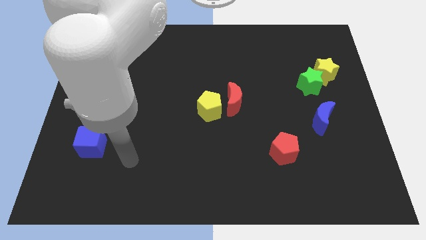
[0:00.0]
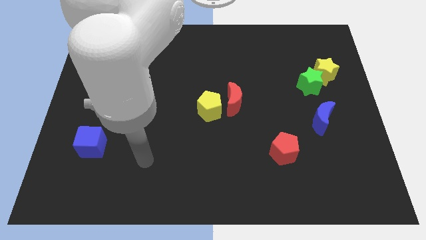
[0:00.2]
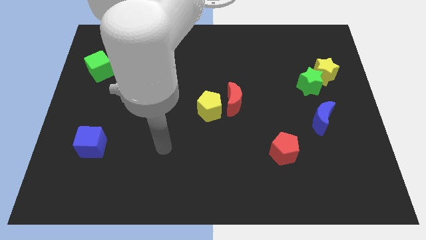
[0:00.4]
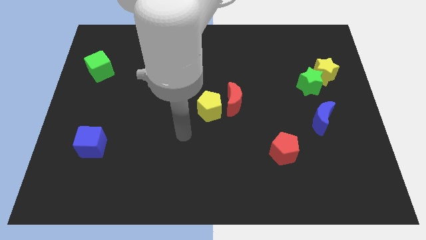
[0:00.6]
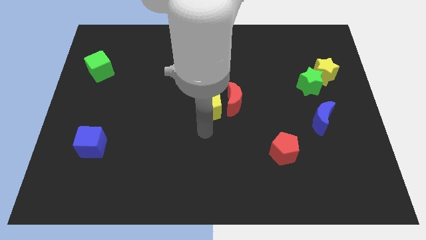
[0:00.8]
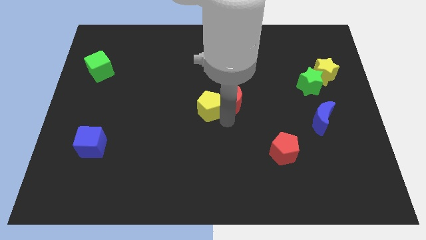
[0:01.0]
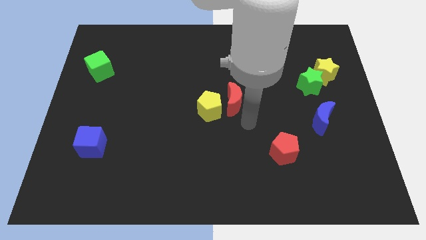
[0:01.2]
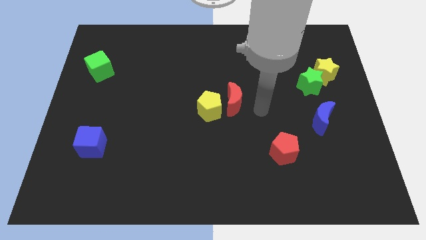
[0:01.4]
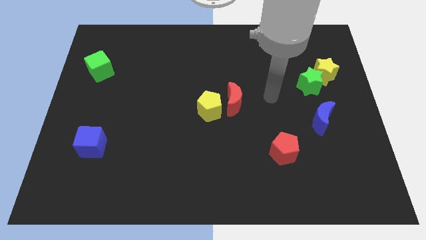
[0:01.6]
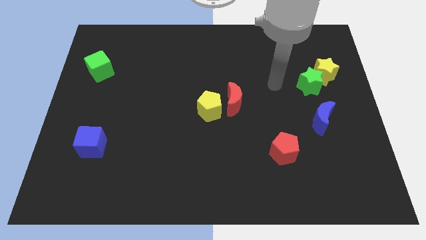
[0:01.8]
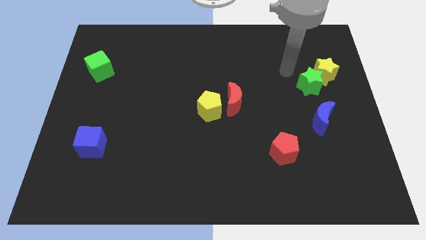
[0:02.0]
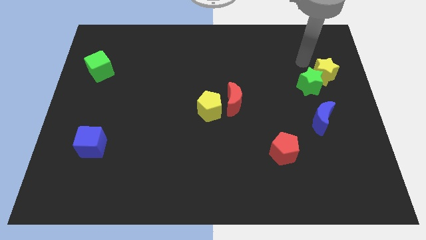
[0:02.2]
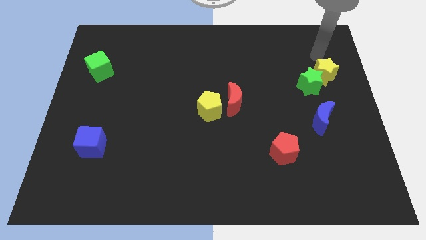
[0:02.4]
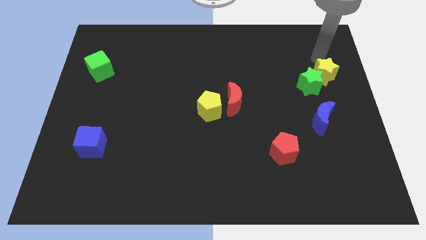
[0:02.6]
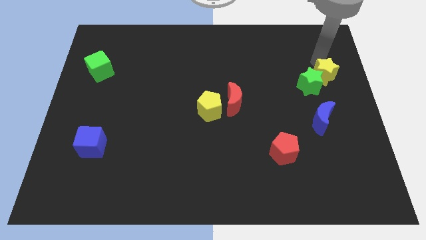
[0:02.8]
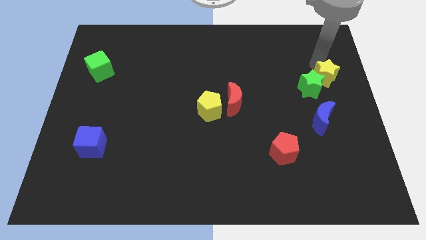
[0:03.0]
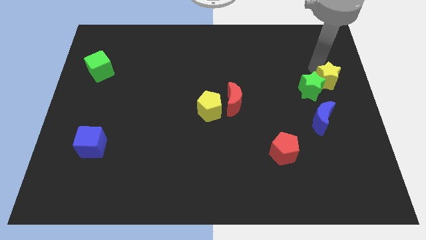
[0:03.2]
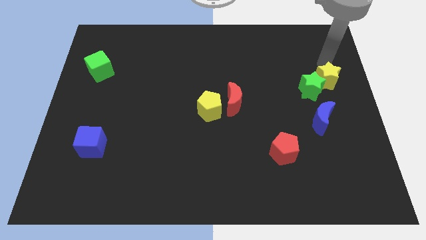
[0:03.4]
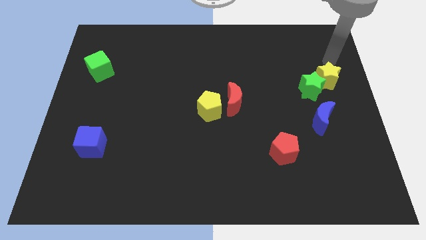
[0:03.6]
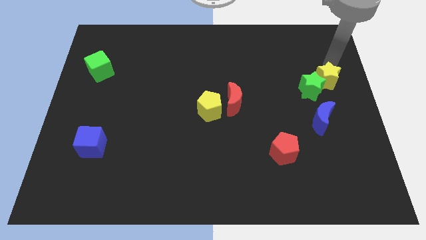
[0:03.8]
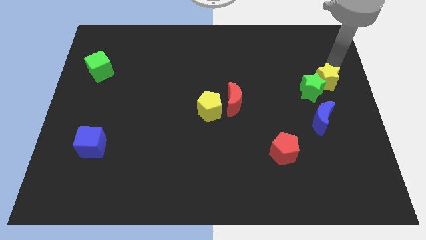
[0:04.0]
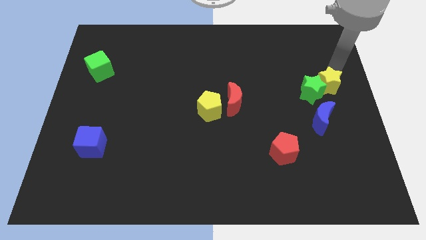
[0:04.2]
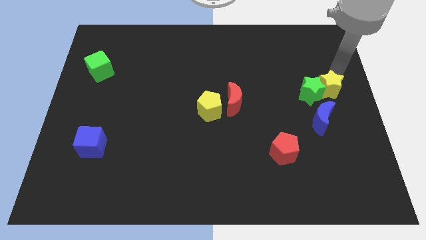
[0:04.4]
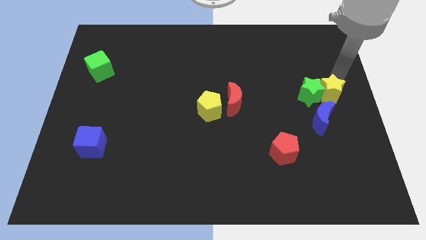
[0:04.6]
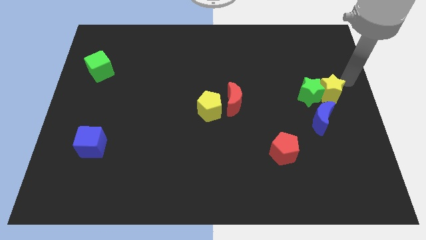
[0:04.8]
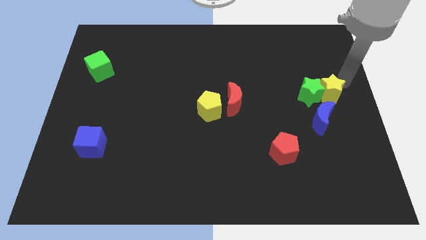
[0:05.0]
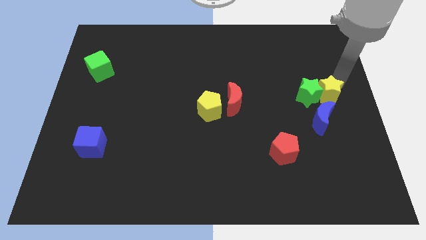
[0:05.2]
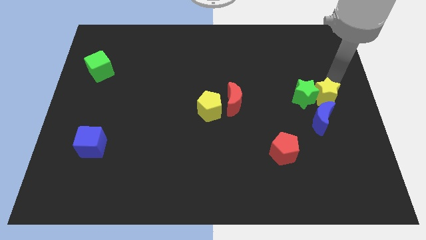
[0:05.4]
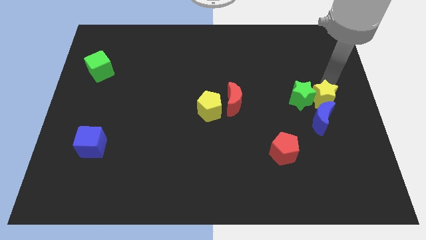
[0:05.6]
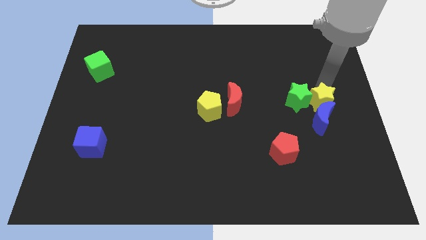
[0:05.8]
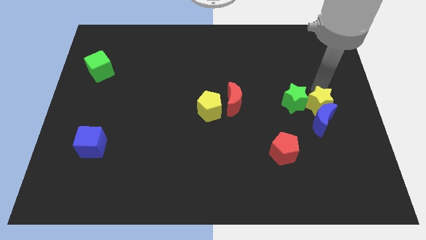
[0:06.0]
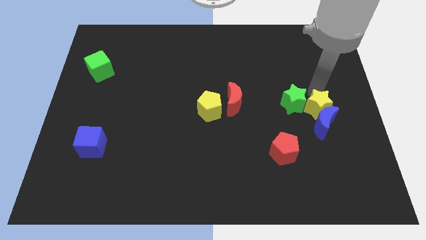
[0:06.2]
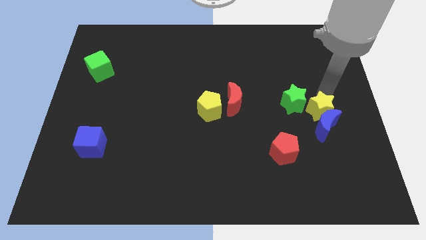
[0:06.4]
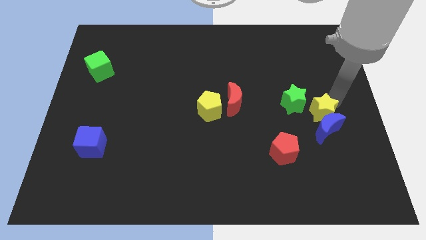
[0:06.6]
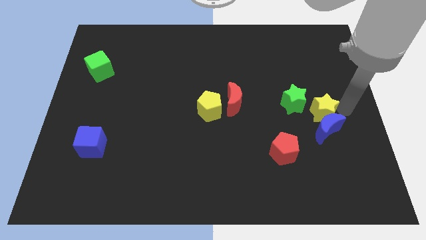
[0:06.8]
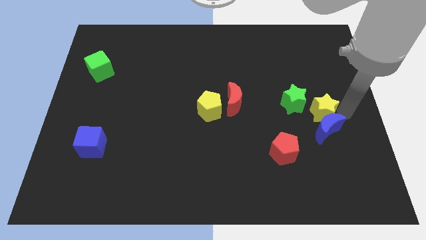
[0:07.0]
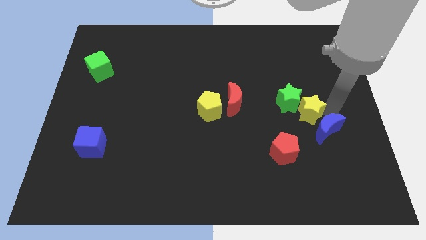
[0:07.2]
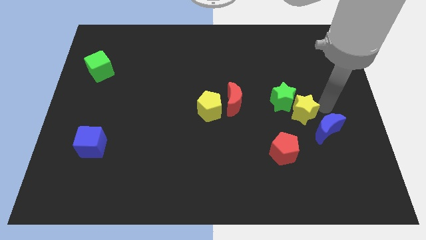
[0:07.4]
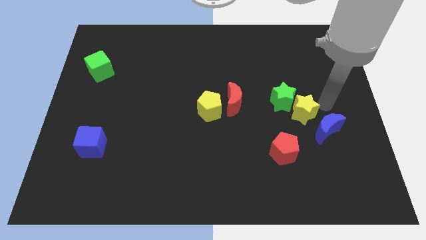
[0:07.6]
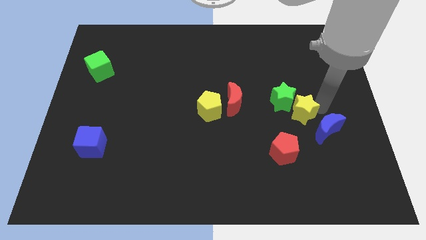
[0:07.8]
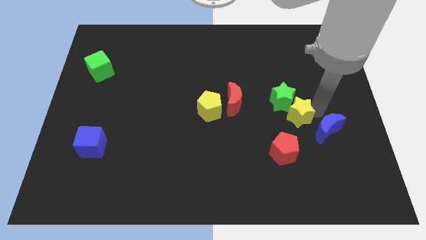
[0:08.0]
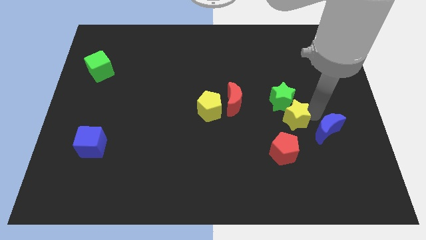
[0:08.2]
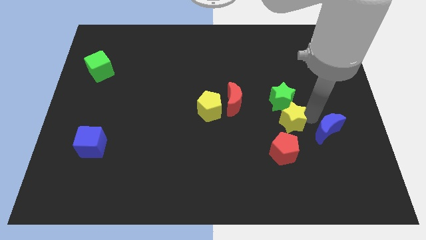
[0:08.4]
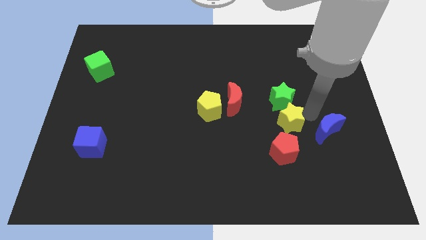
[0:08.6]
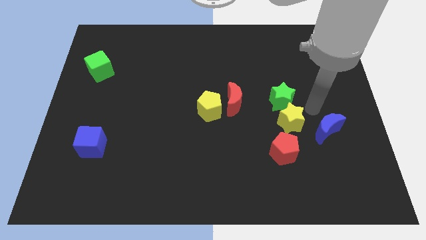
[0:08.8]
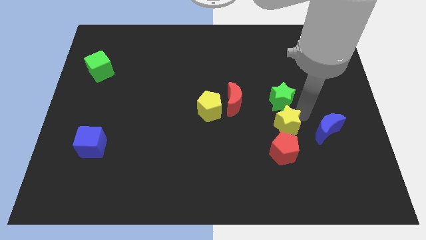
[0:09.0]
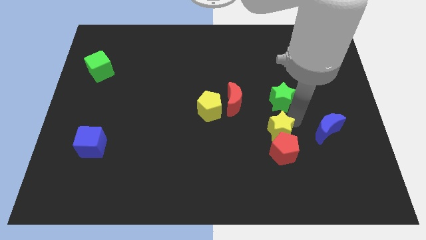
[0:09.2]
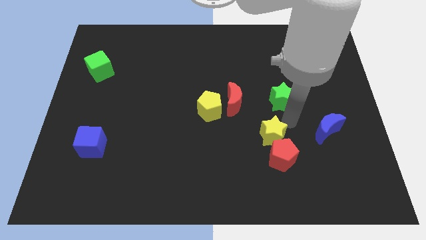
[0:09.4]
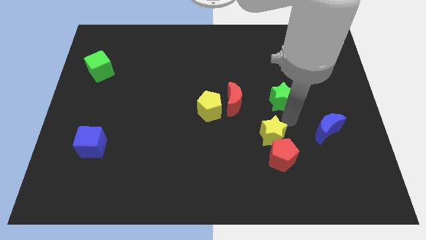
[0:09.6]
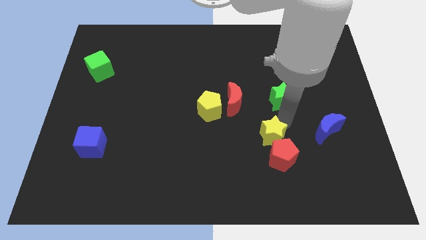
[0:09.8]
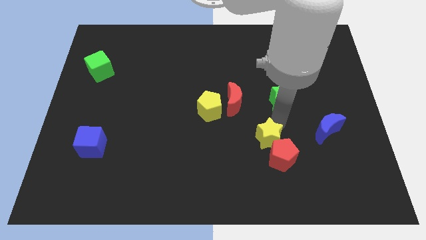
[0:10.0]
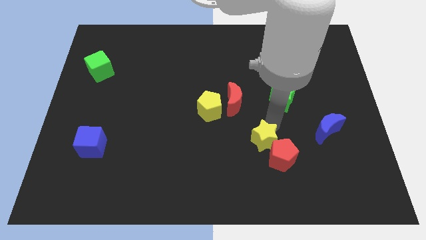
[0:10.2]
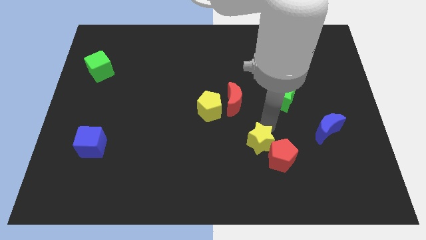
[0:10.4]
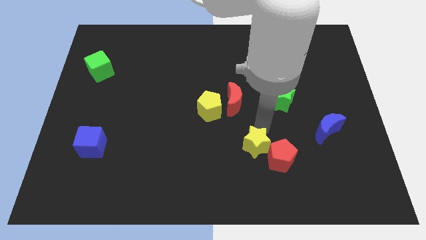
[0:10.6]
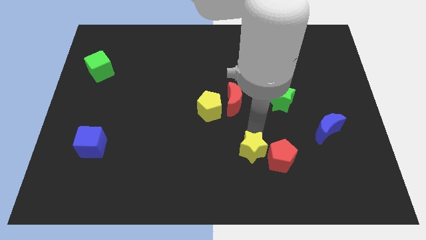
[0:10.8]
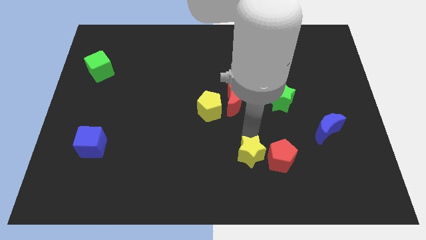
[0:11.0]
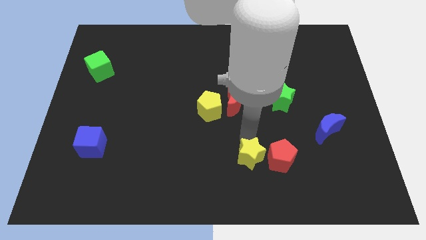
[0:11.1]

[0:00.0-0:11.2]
move the yellow star diagonally down and to the left of the red pentagon

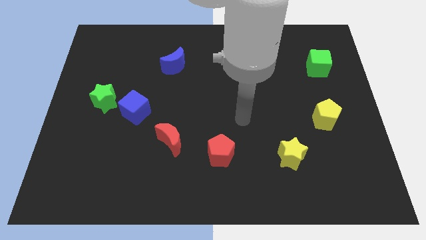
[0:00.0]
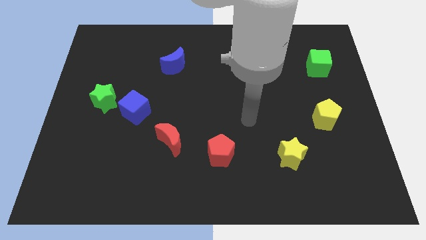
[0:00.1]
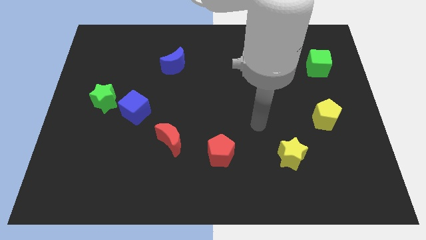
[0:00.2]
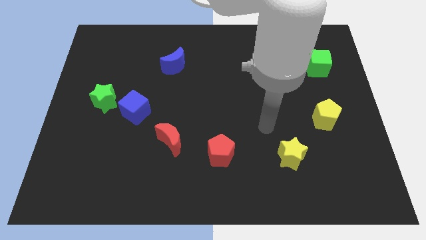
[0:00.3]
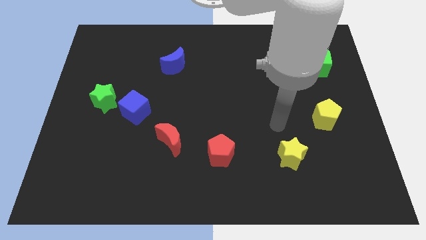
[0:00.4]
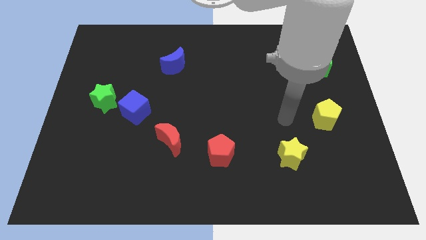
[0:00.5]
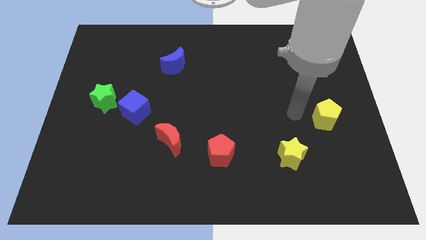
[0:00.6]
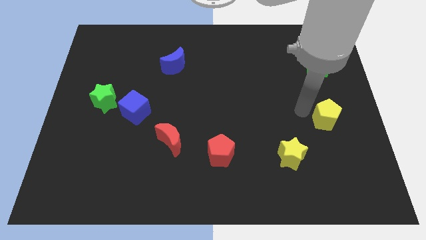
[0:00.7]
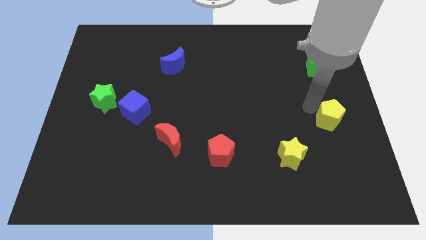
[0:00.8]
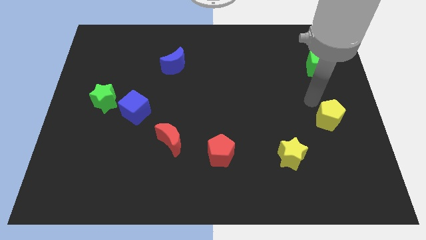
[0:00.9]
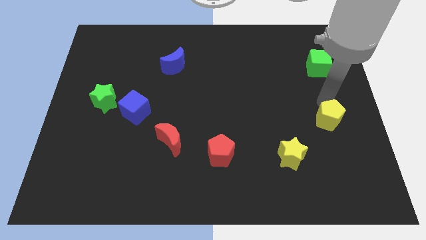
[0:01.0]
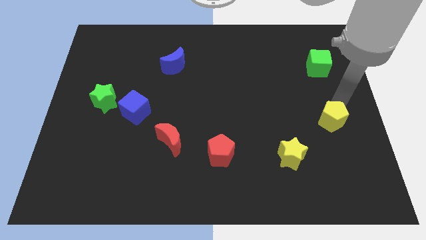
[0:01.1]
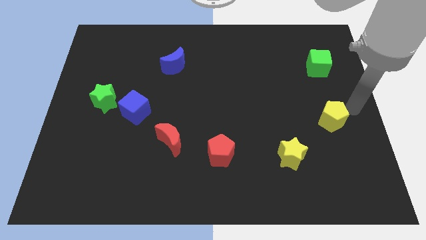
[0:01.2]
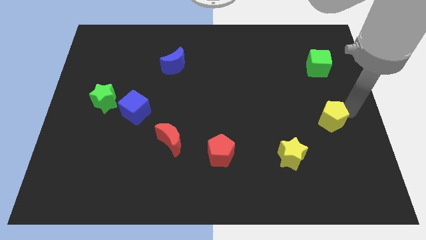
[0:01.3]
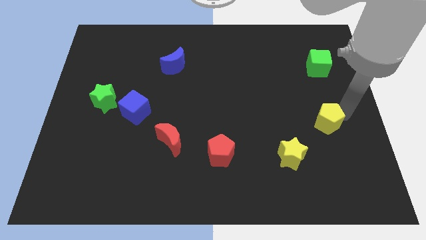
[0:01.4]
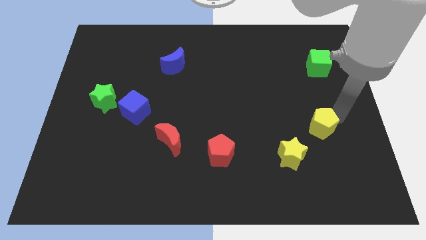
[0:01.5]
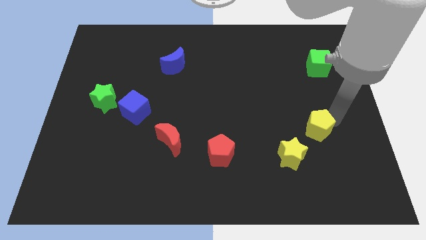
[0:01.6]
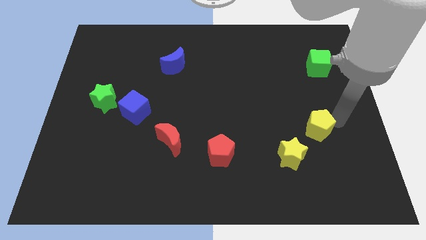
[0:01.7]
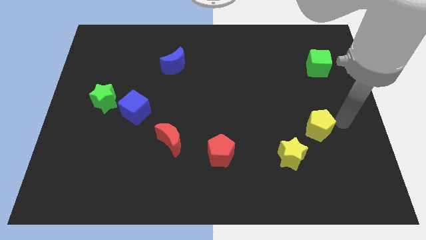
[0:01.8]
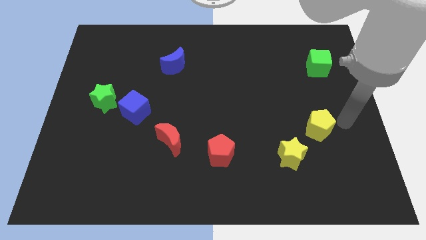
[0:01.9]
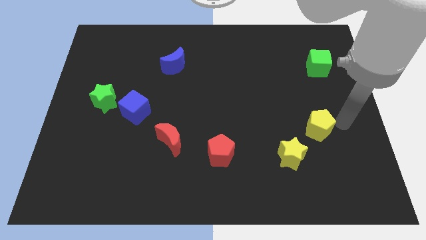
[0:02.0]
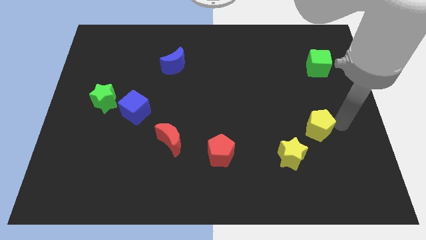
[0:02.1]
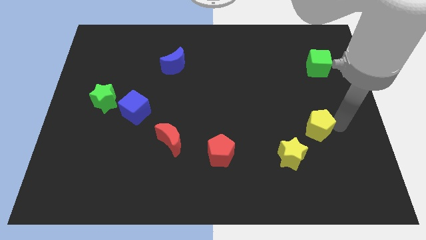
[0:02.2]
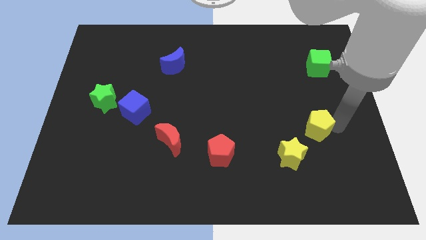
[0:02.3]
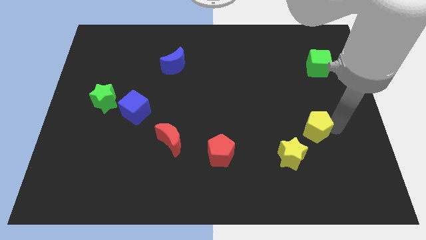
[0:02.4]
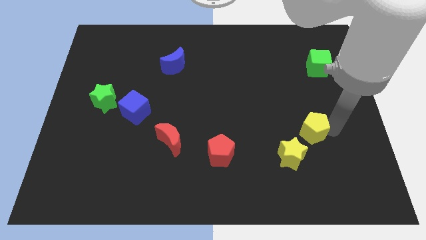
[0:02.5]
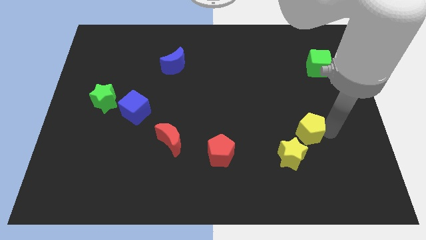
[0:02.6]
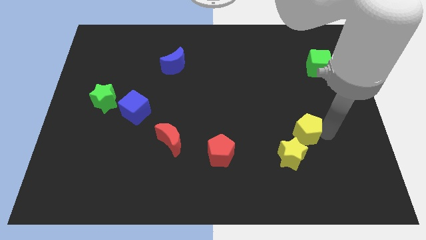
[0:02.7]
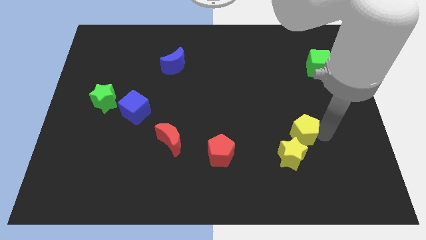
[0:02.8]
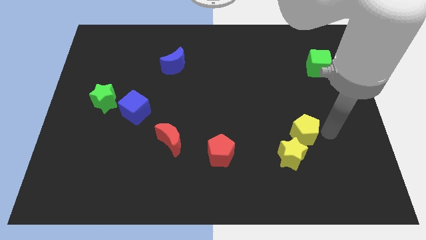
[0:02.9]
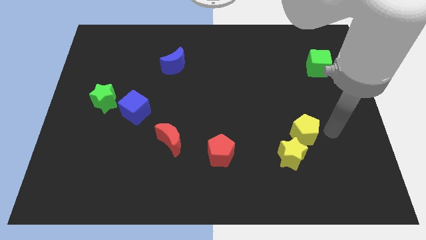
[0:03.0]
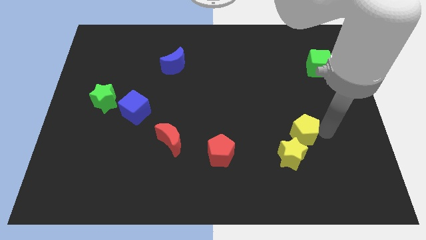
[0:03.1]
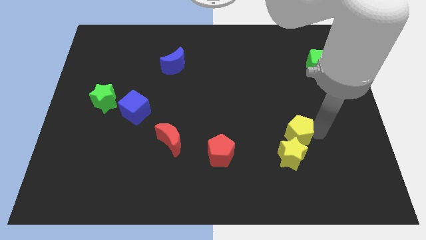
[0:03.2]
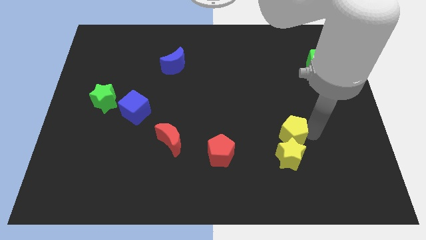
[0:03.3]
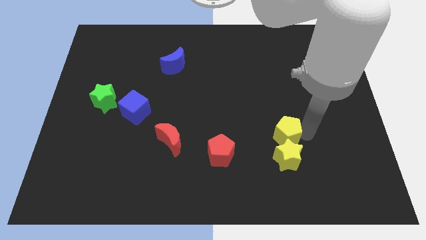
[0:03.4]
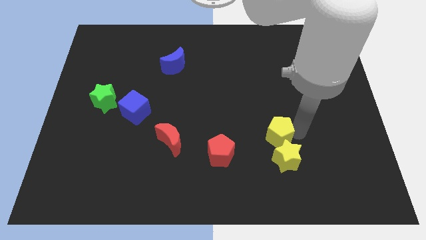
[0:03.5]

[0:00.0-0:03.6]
push the yellow pentagon just right of the red pentagon
